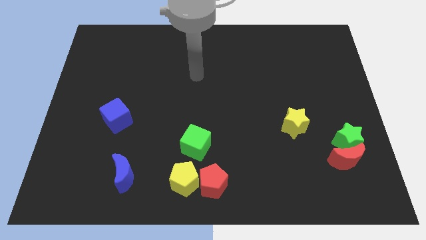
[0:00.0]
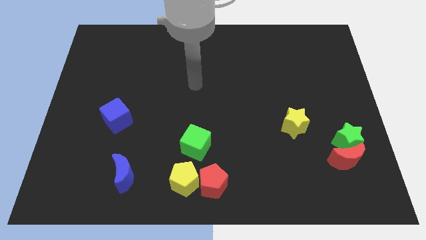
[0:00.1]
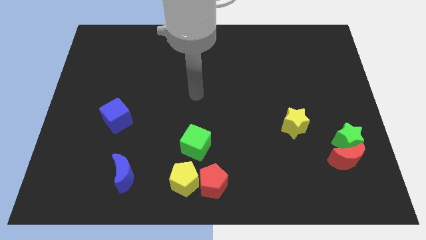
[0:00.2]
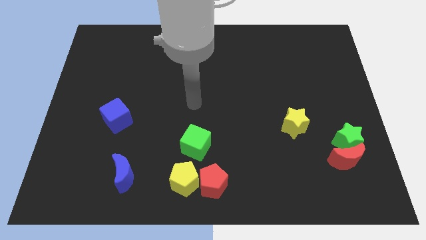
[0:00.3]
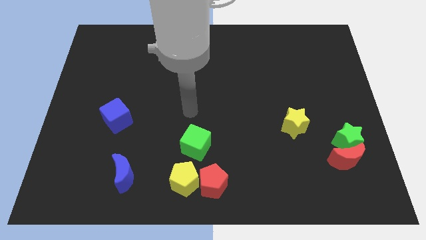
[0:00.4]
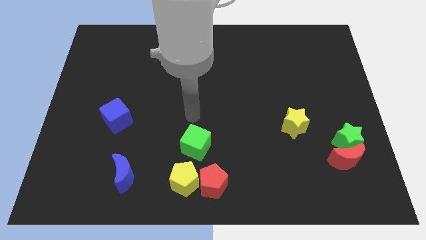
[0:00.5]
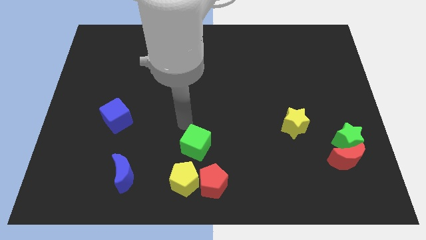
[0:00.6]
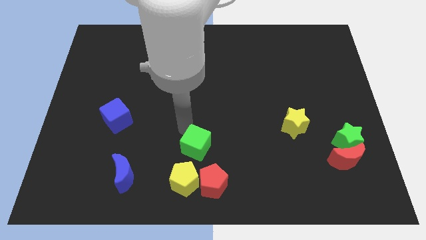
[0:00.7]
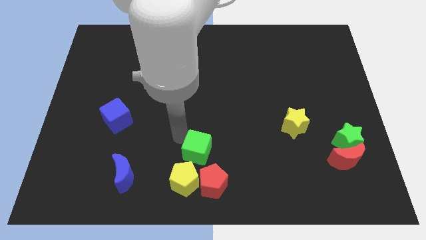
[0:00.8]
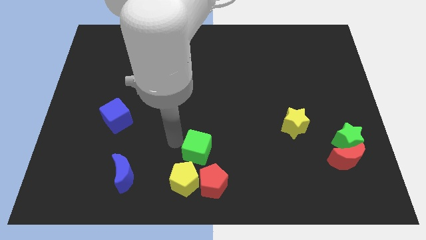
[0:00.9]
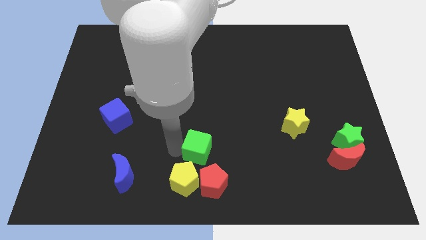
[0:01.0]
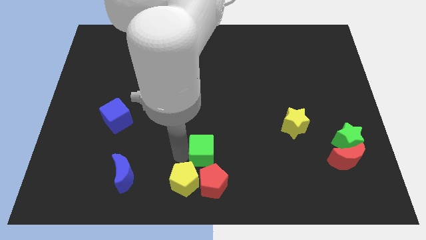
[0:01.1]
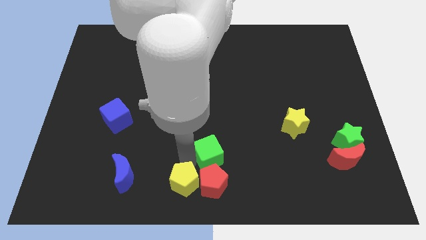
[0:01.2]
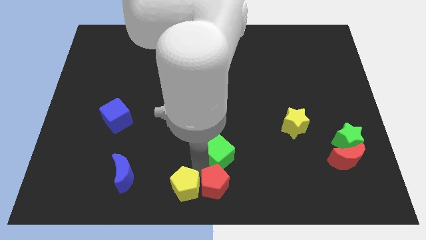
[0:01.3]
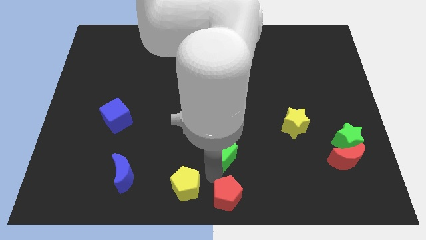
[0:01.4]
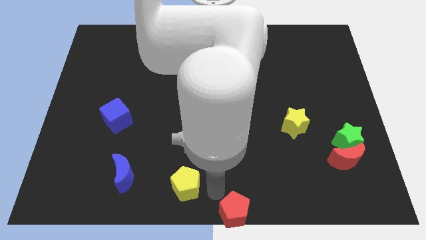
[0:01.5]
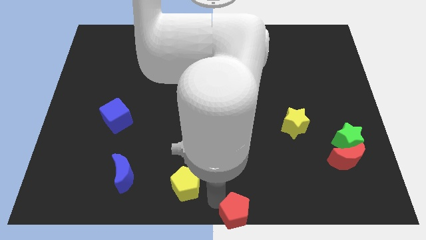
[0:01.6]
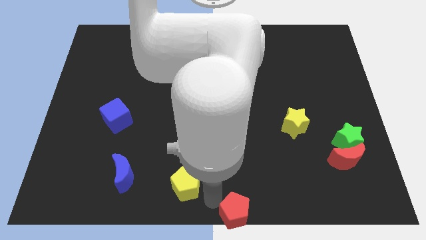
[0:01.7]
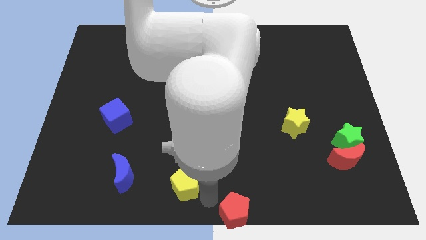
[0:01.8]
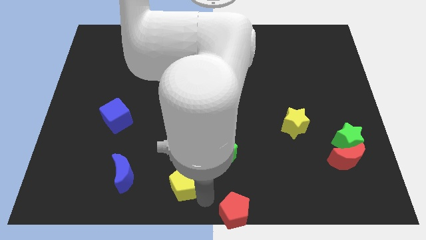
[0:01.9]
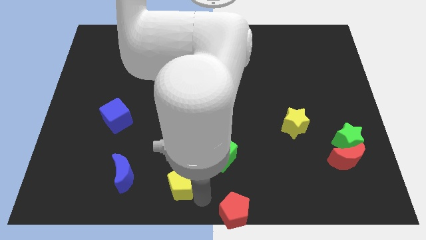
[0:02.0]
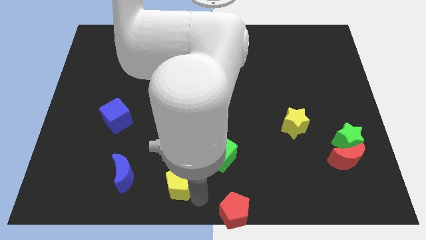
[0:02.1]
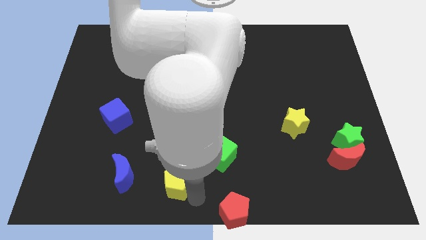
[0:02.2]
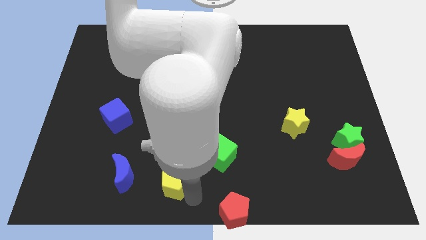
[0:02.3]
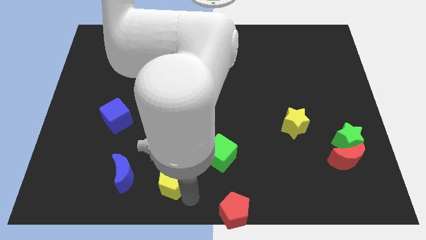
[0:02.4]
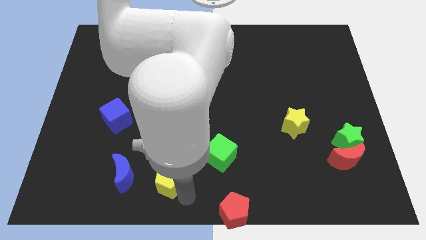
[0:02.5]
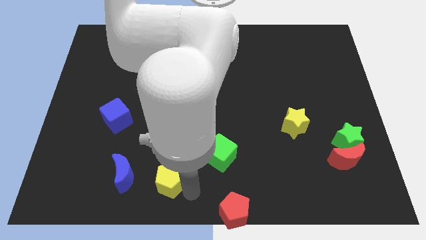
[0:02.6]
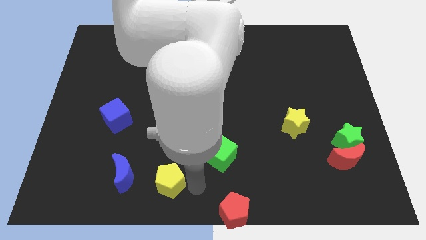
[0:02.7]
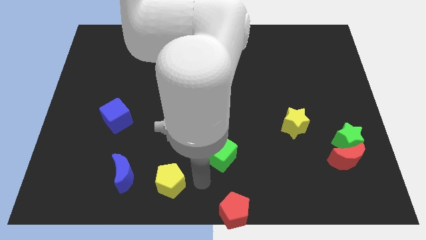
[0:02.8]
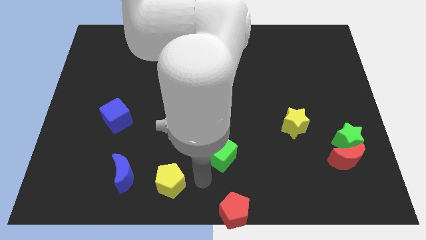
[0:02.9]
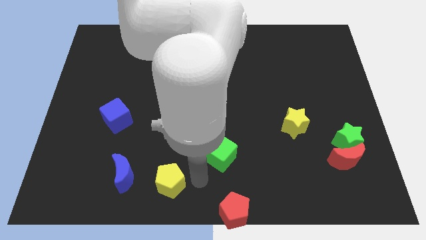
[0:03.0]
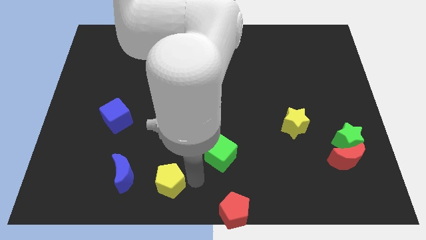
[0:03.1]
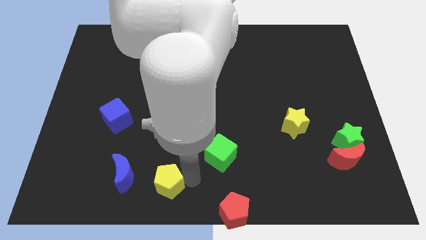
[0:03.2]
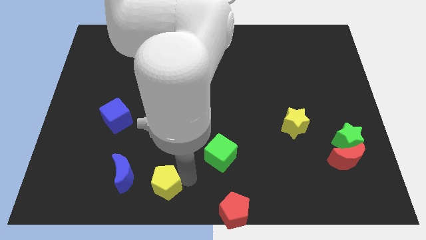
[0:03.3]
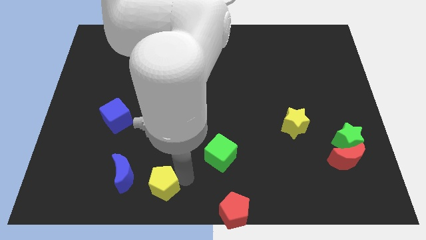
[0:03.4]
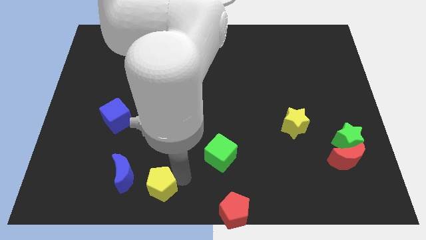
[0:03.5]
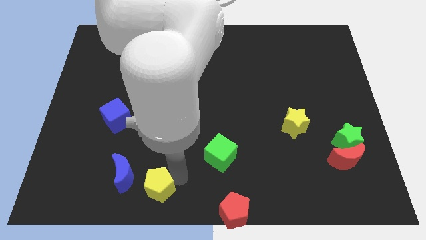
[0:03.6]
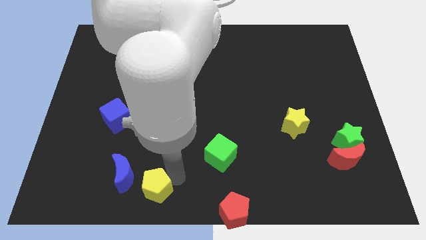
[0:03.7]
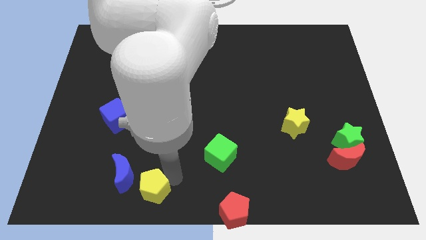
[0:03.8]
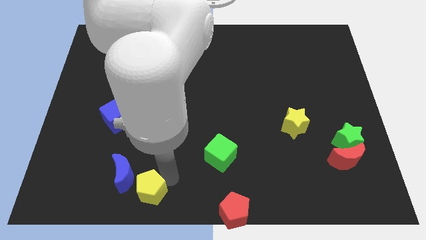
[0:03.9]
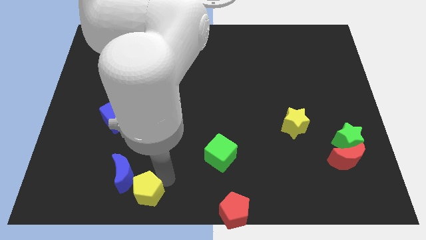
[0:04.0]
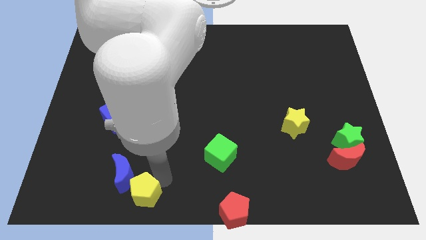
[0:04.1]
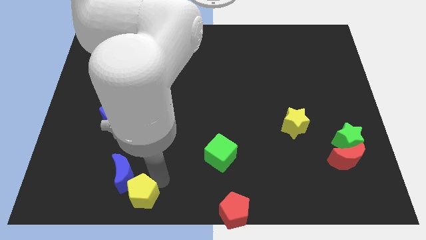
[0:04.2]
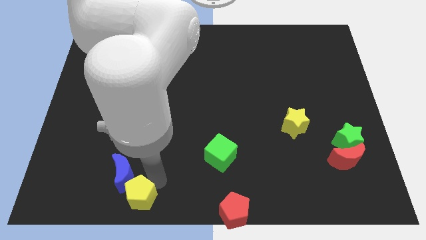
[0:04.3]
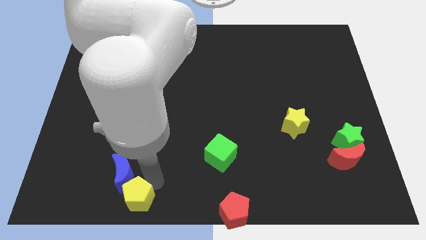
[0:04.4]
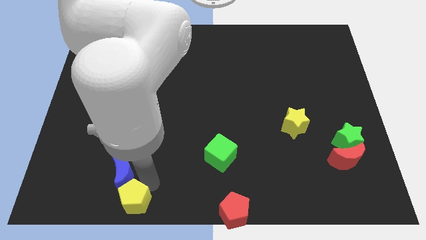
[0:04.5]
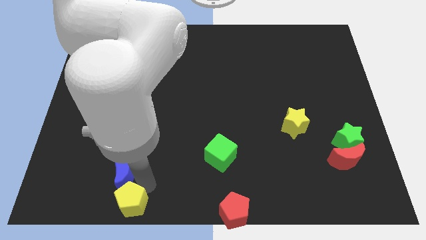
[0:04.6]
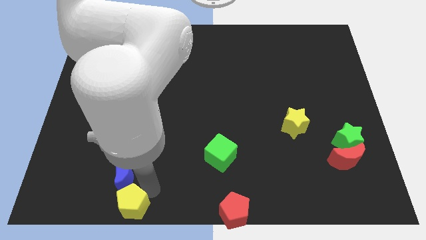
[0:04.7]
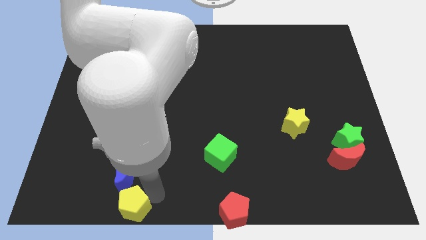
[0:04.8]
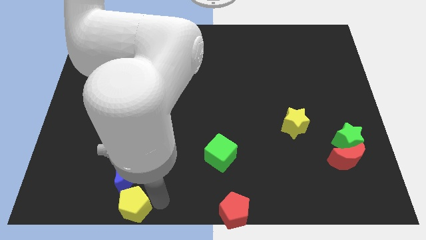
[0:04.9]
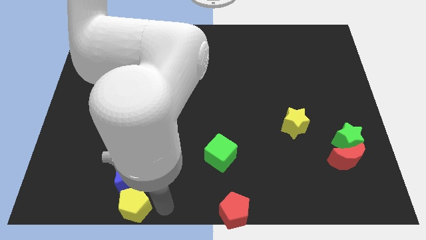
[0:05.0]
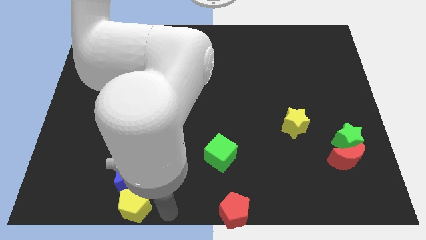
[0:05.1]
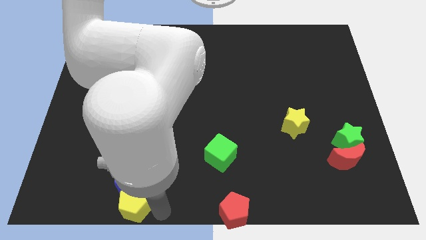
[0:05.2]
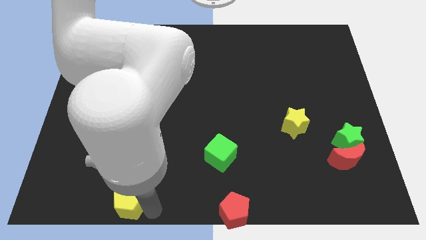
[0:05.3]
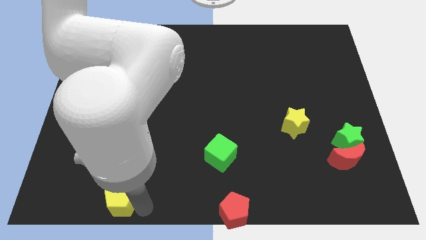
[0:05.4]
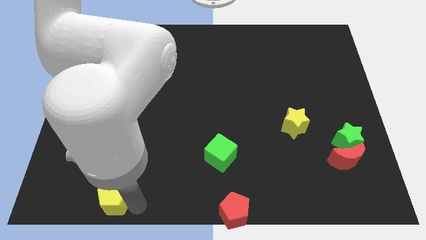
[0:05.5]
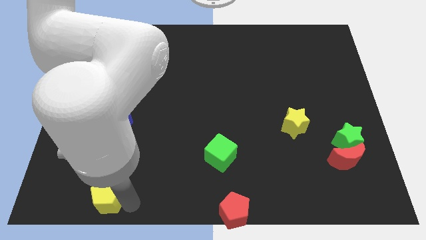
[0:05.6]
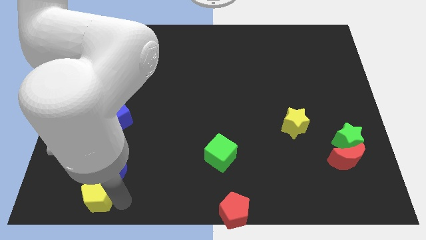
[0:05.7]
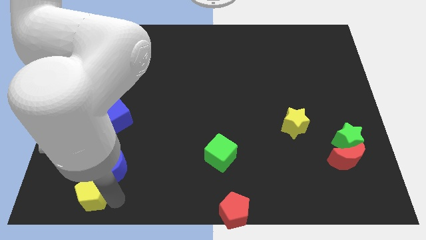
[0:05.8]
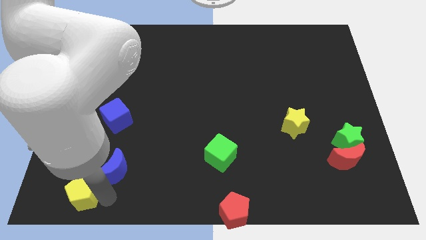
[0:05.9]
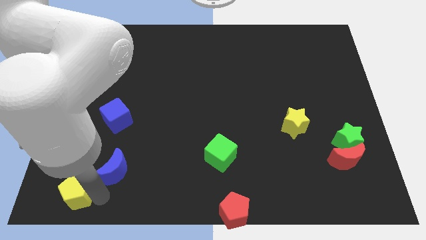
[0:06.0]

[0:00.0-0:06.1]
push the yellow pentagon to the lower left corner
